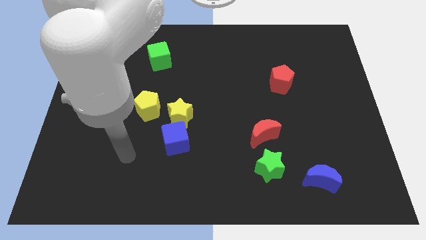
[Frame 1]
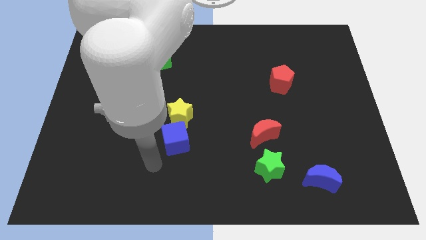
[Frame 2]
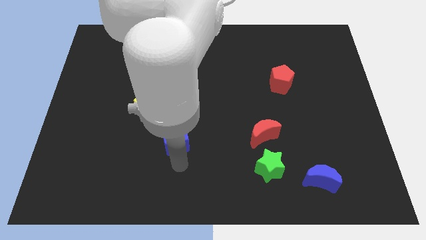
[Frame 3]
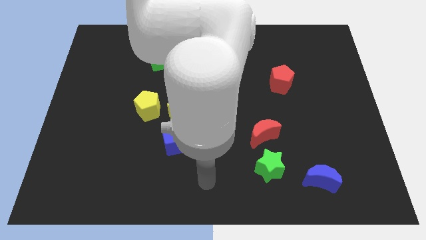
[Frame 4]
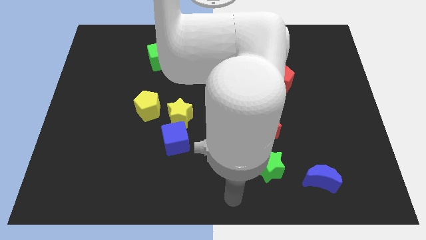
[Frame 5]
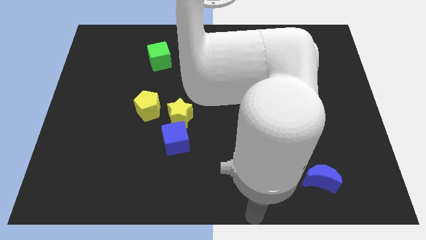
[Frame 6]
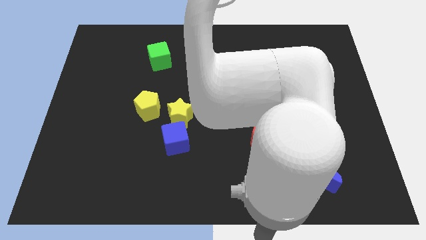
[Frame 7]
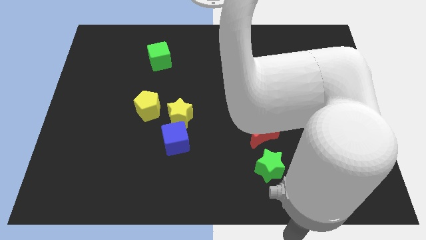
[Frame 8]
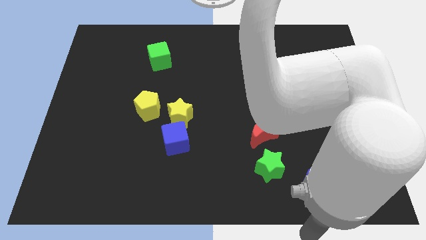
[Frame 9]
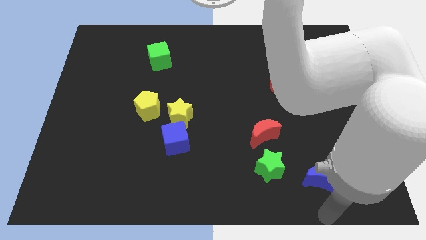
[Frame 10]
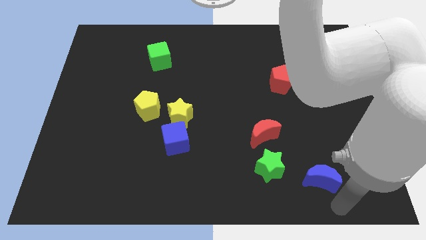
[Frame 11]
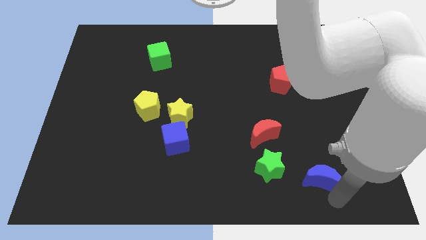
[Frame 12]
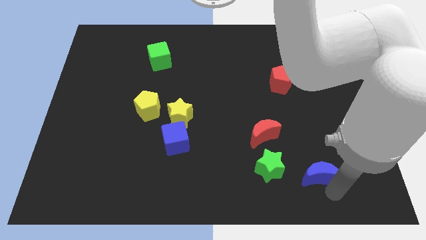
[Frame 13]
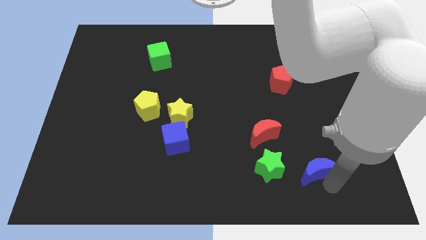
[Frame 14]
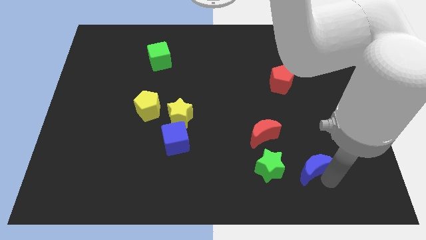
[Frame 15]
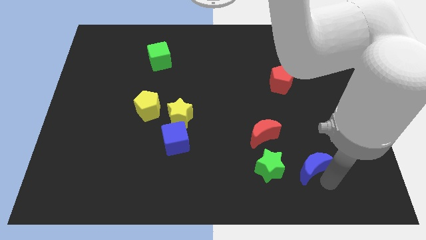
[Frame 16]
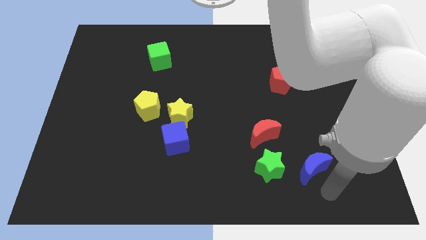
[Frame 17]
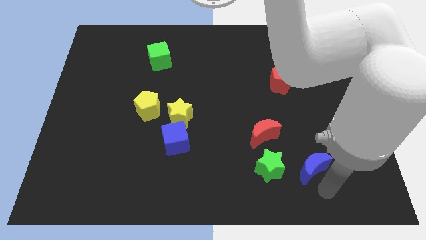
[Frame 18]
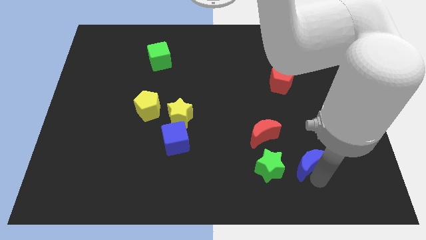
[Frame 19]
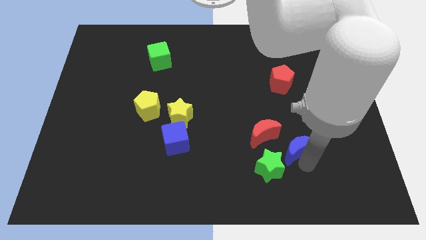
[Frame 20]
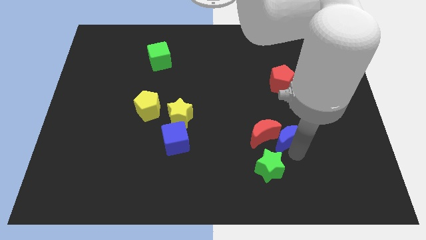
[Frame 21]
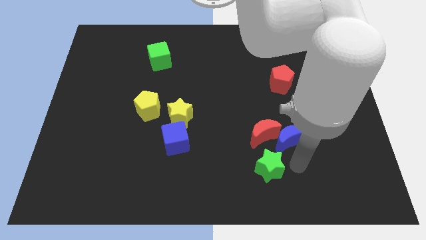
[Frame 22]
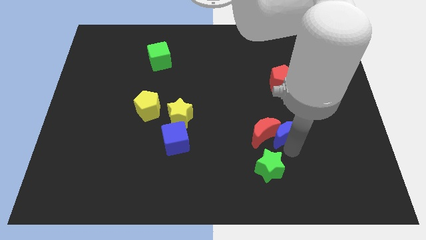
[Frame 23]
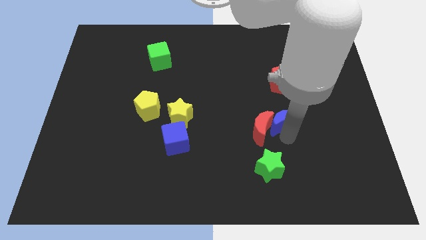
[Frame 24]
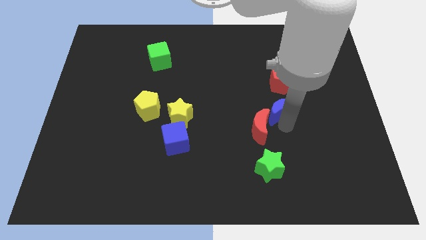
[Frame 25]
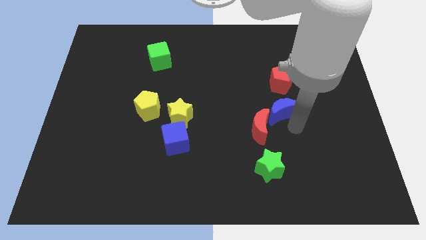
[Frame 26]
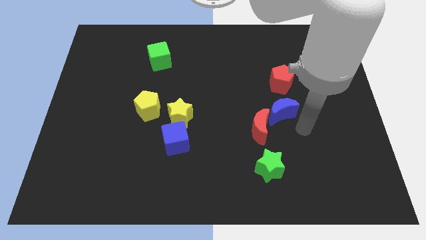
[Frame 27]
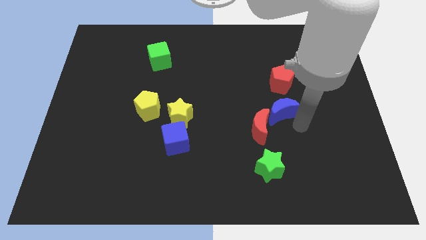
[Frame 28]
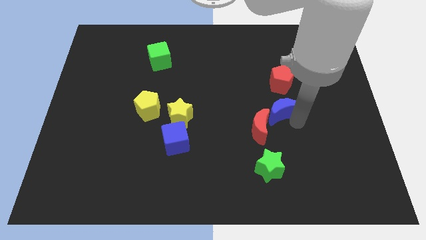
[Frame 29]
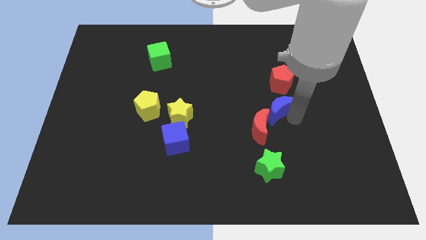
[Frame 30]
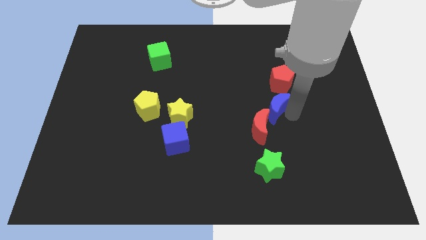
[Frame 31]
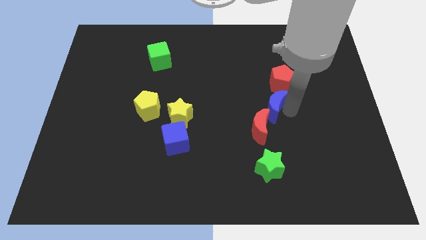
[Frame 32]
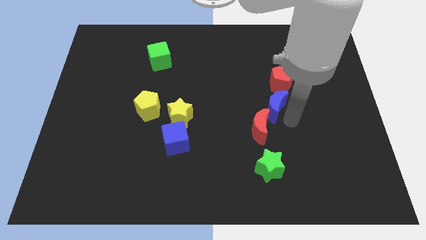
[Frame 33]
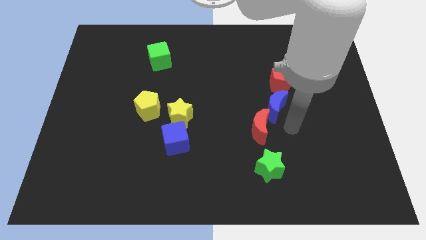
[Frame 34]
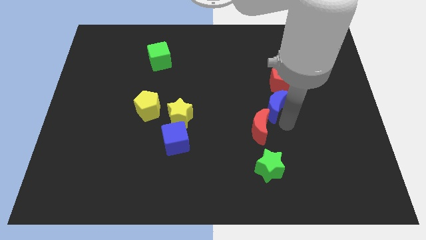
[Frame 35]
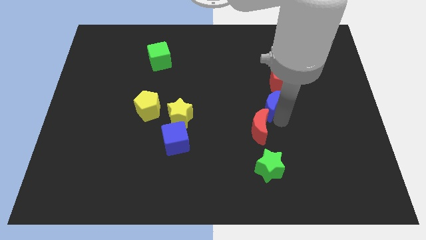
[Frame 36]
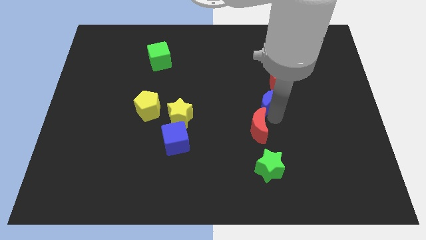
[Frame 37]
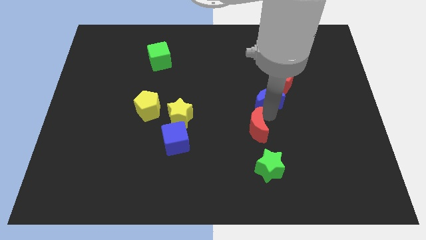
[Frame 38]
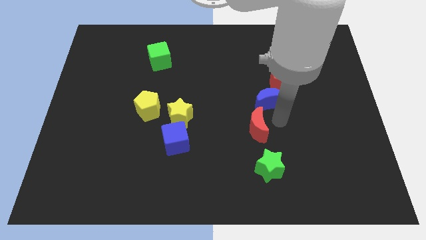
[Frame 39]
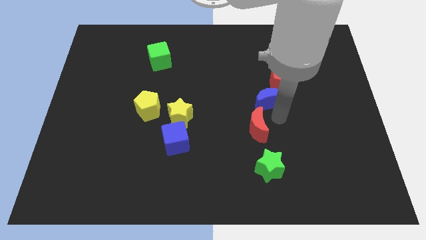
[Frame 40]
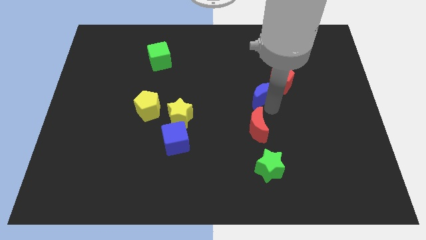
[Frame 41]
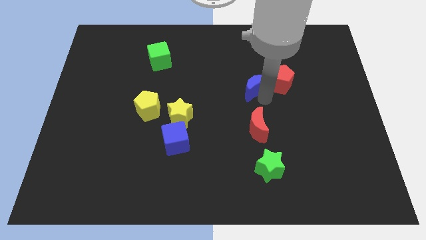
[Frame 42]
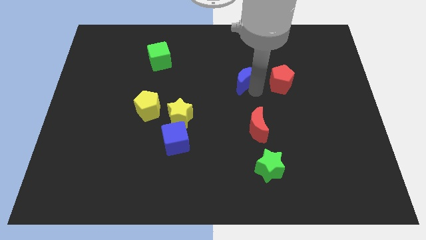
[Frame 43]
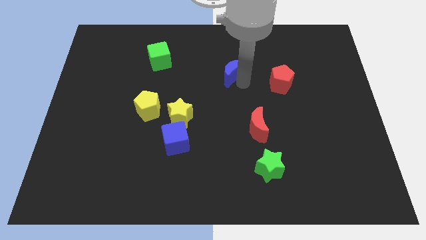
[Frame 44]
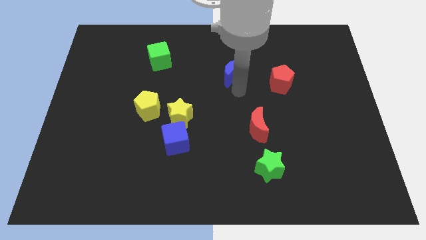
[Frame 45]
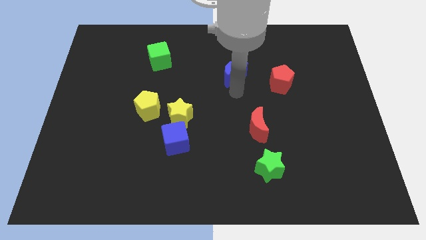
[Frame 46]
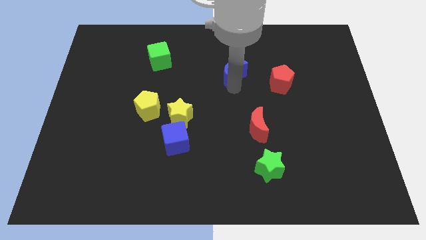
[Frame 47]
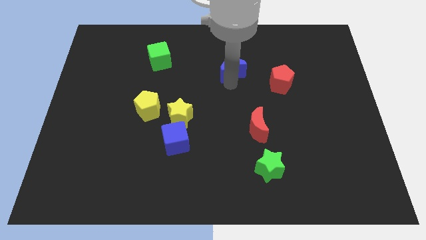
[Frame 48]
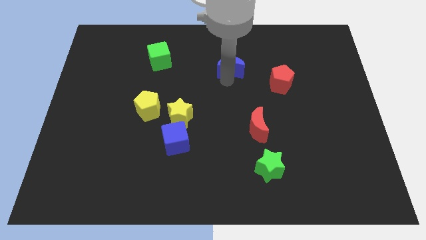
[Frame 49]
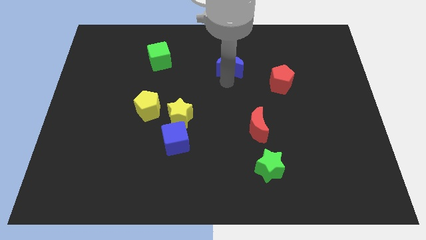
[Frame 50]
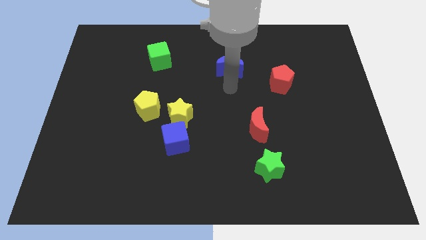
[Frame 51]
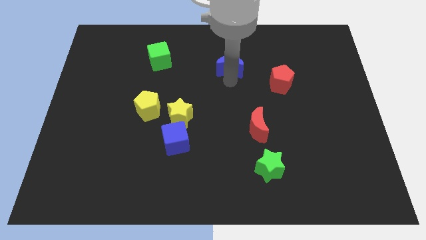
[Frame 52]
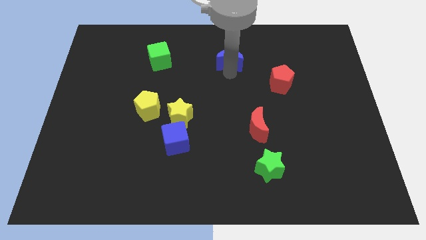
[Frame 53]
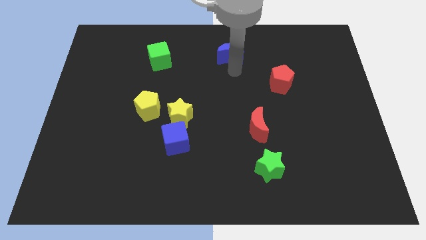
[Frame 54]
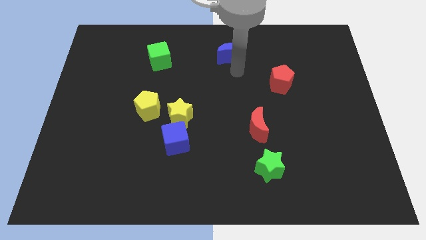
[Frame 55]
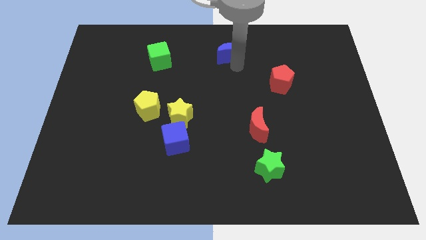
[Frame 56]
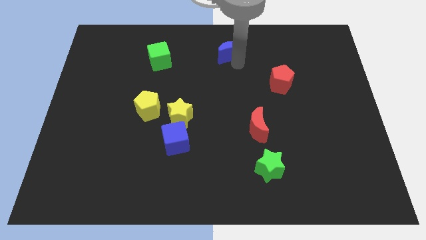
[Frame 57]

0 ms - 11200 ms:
put the blue moon to the top

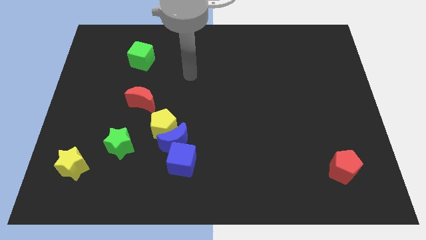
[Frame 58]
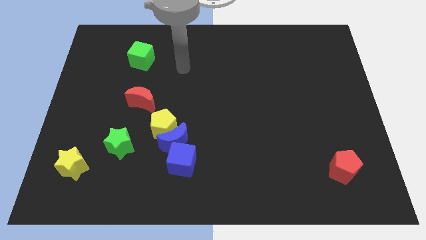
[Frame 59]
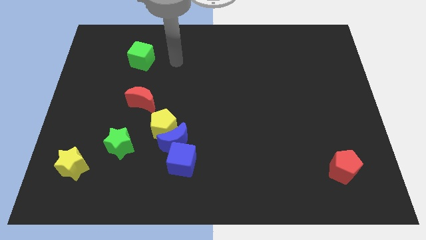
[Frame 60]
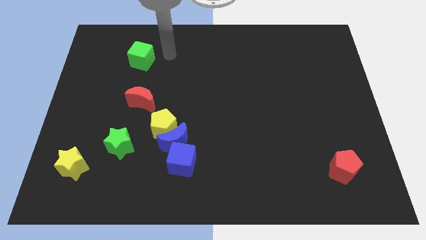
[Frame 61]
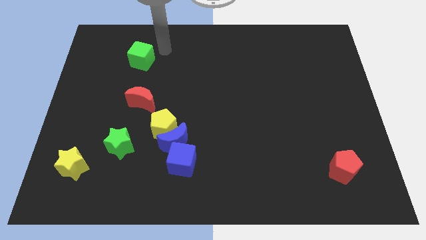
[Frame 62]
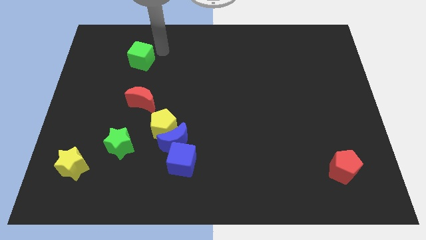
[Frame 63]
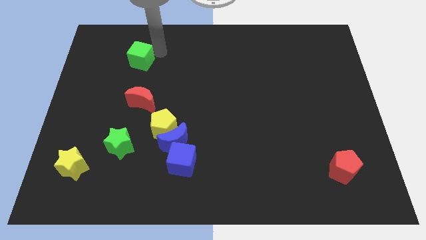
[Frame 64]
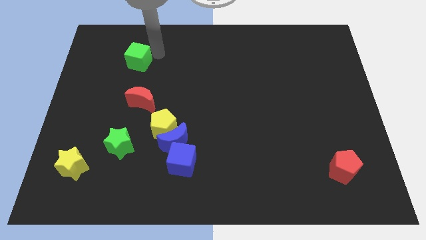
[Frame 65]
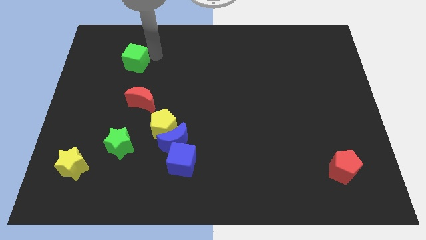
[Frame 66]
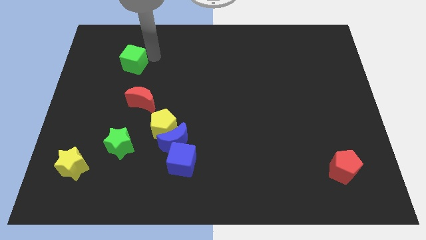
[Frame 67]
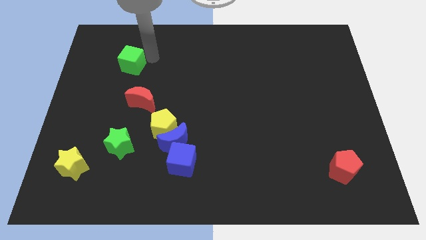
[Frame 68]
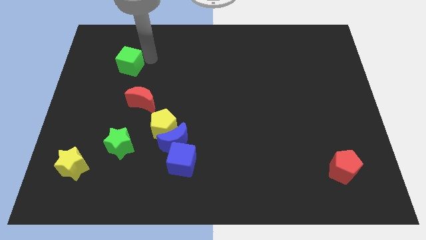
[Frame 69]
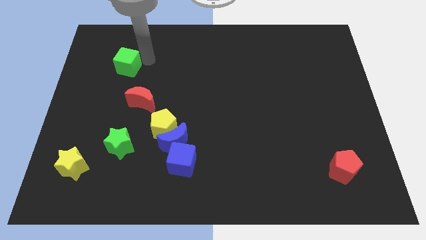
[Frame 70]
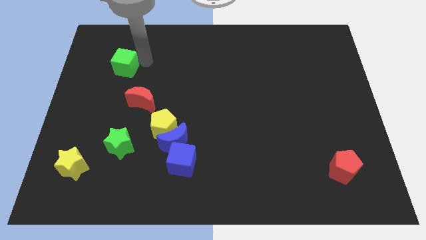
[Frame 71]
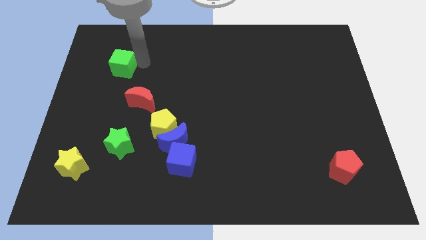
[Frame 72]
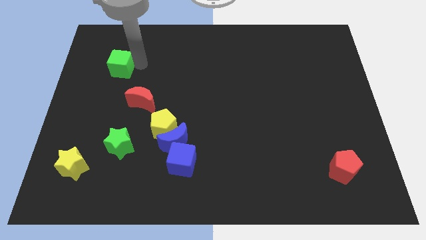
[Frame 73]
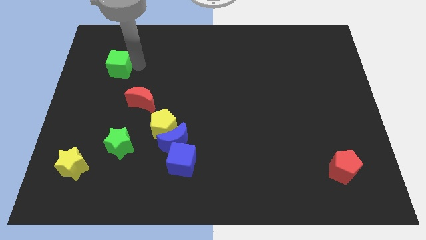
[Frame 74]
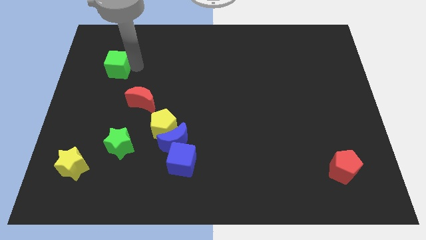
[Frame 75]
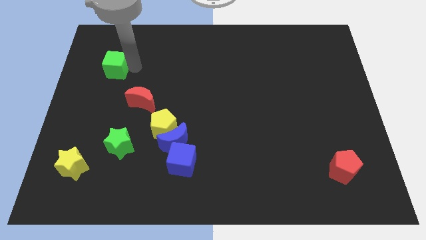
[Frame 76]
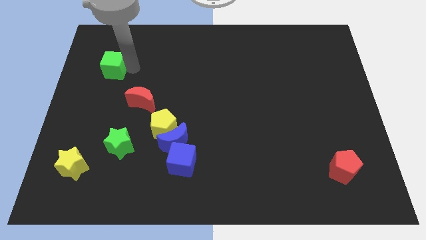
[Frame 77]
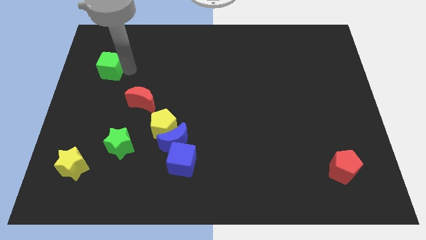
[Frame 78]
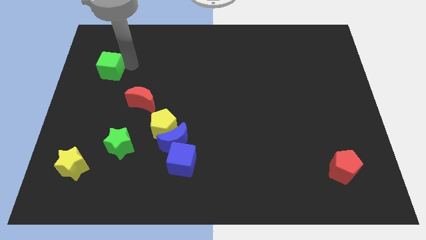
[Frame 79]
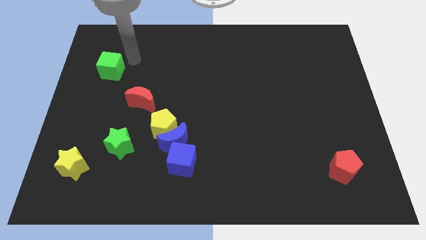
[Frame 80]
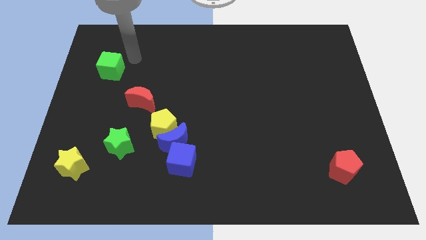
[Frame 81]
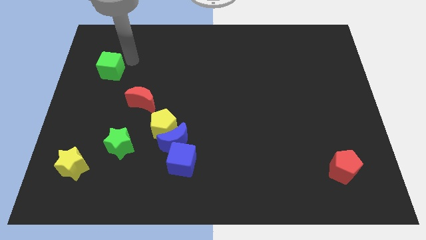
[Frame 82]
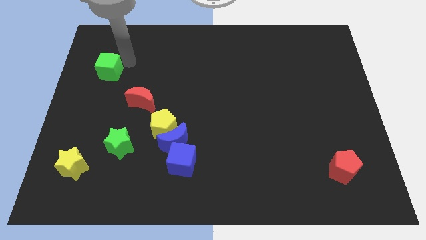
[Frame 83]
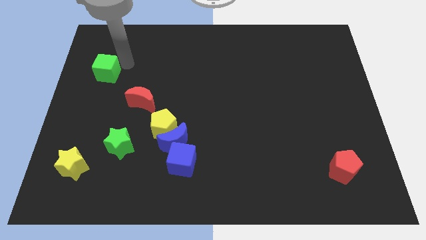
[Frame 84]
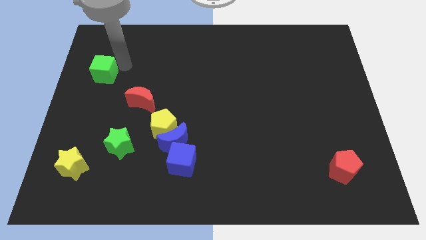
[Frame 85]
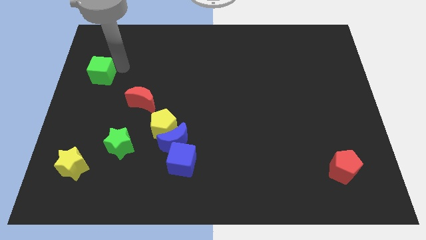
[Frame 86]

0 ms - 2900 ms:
put the green cube to the left side of the board
